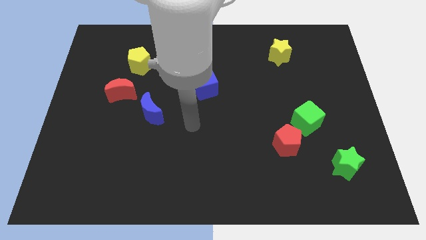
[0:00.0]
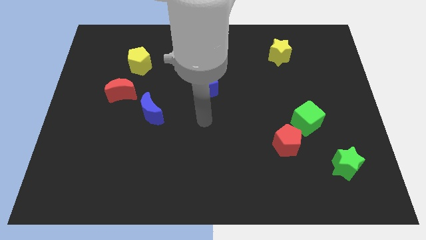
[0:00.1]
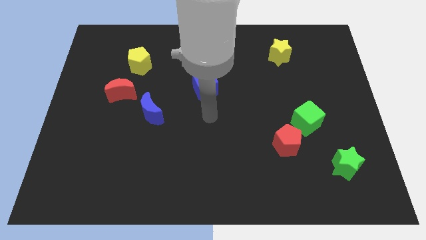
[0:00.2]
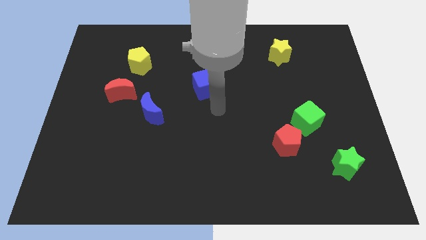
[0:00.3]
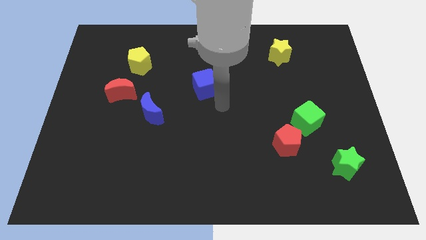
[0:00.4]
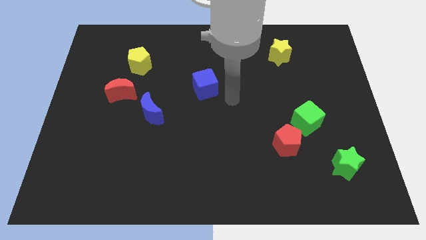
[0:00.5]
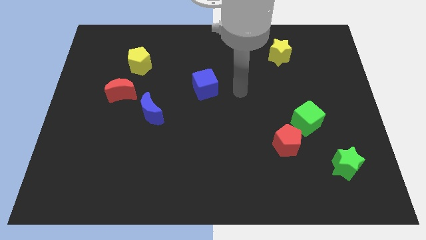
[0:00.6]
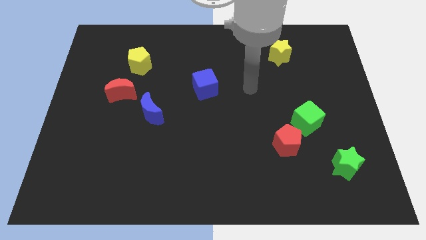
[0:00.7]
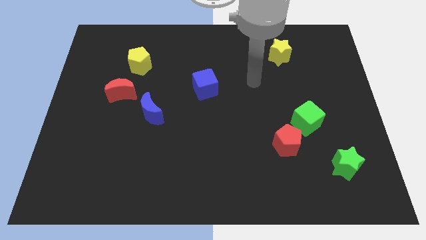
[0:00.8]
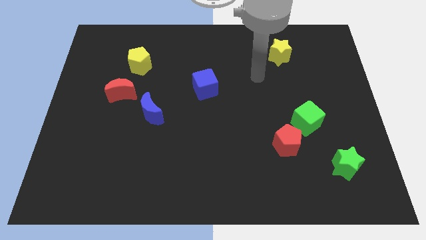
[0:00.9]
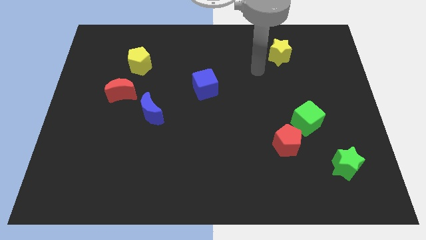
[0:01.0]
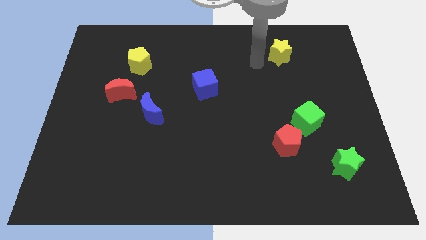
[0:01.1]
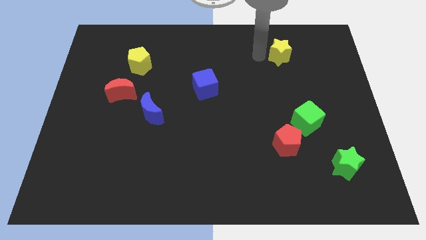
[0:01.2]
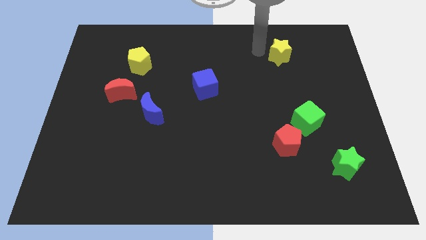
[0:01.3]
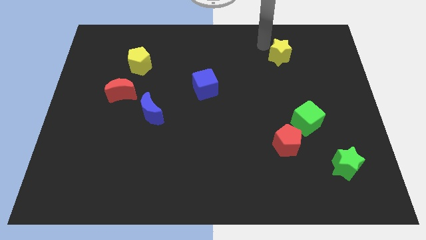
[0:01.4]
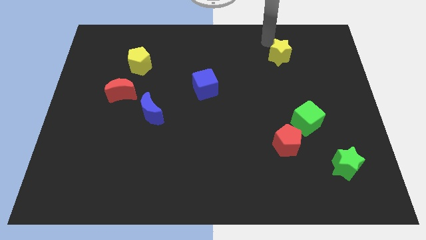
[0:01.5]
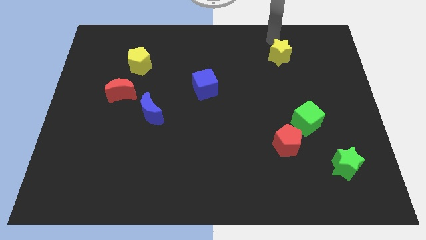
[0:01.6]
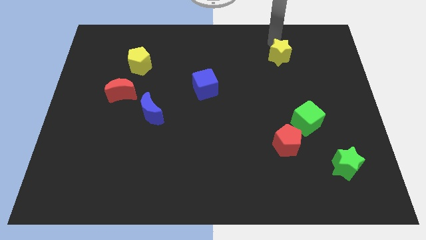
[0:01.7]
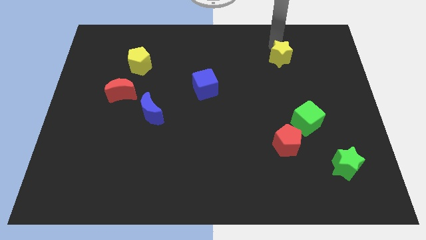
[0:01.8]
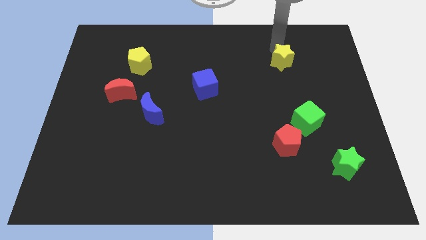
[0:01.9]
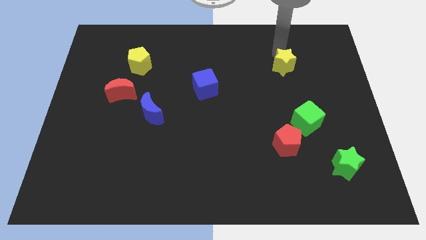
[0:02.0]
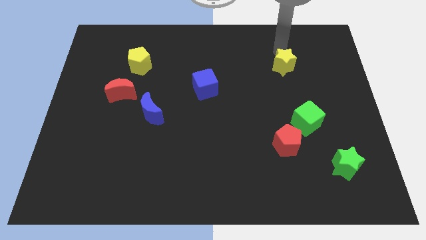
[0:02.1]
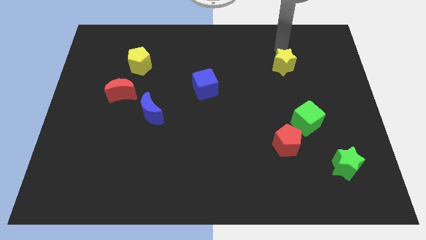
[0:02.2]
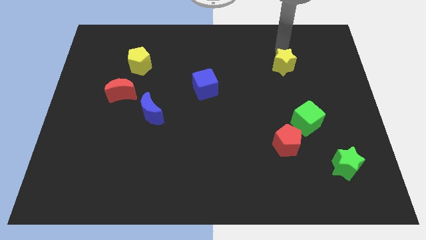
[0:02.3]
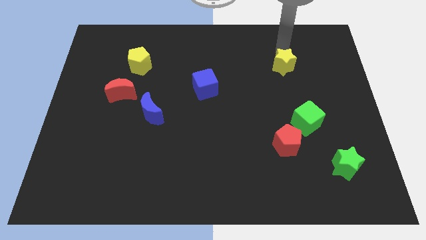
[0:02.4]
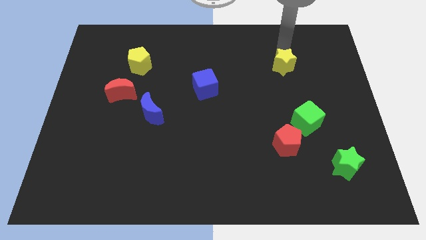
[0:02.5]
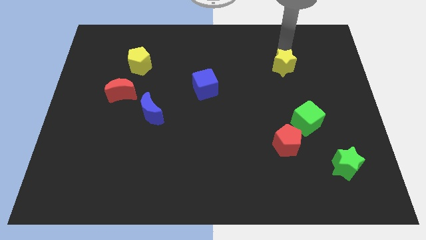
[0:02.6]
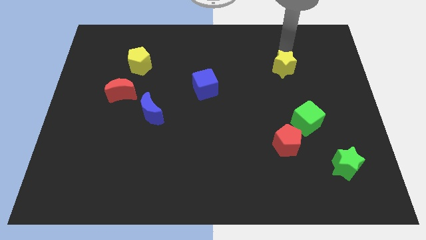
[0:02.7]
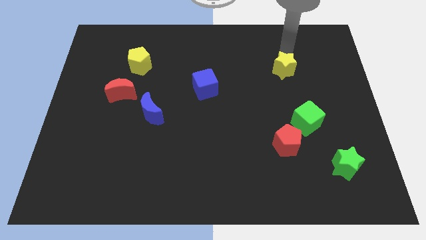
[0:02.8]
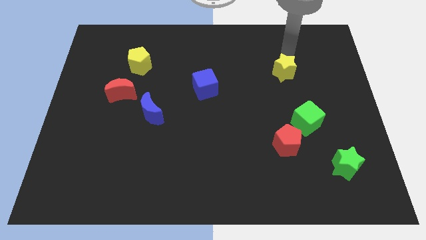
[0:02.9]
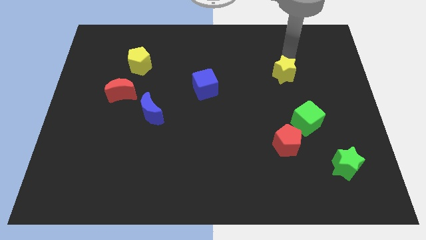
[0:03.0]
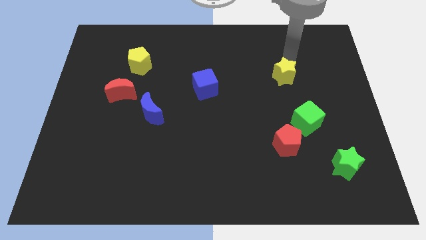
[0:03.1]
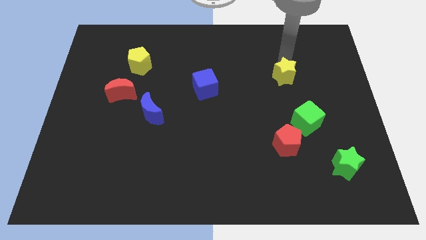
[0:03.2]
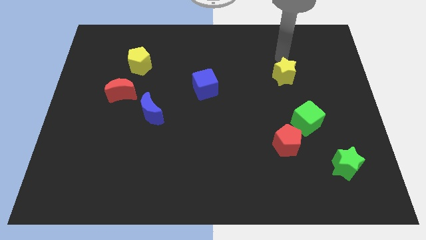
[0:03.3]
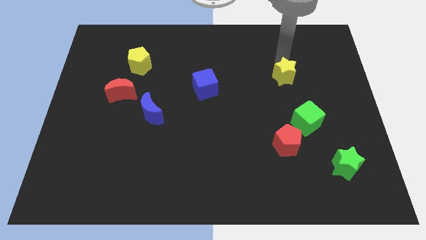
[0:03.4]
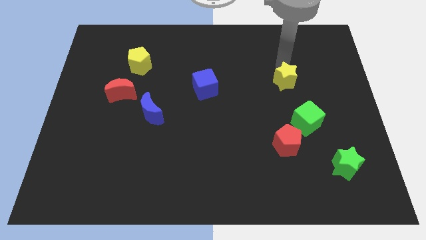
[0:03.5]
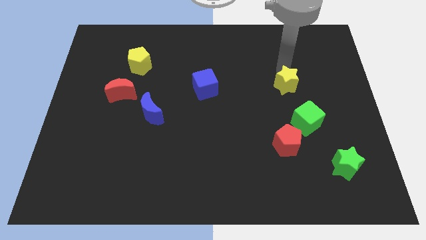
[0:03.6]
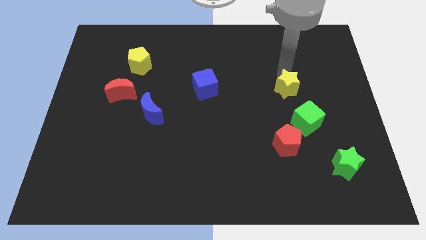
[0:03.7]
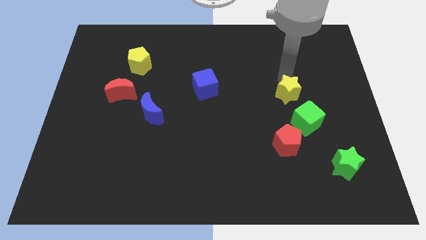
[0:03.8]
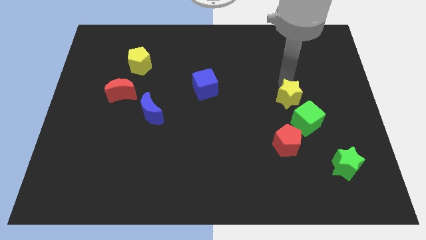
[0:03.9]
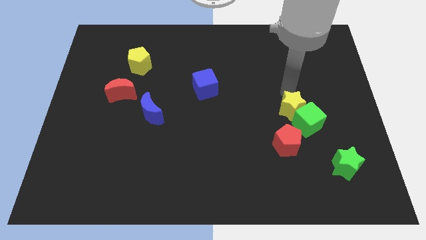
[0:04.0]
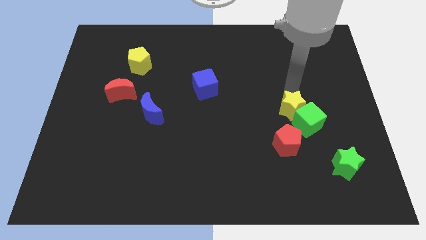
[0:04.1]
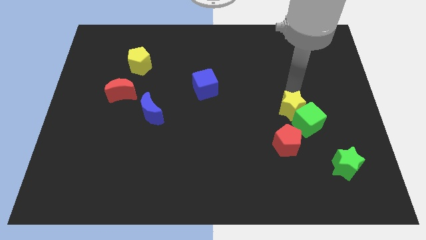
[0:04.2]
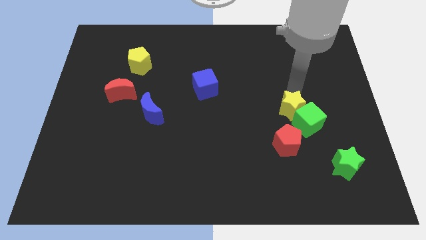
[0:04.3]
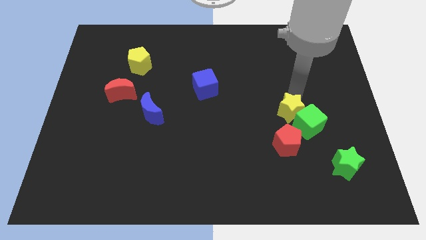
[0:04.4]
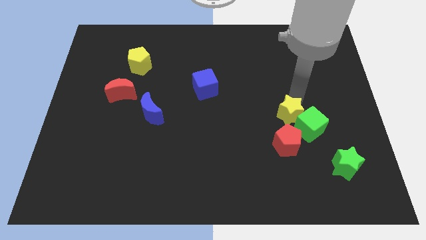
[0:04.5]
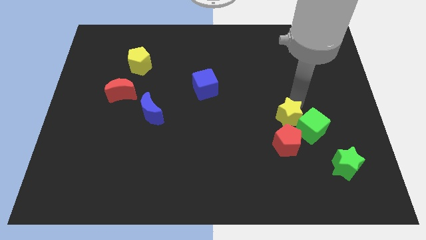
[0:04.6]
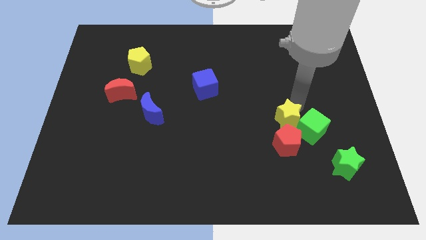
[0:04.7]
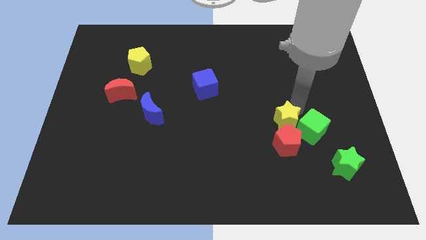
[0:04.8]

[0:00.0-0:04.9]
move the yellow star next to the red pentagon

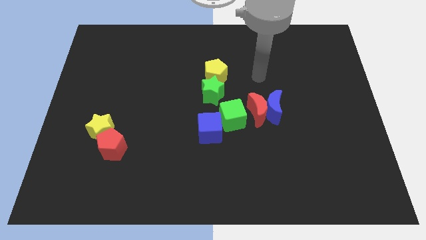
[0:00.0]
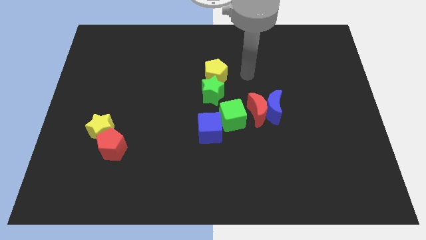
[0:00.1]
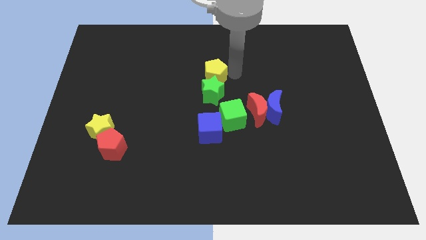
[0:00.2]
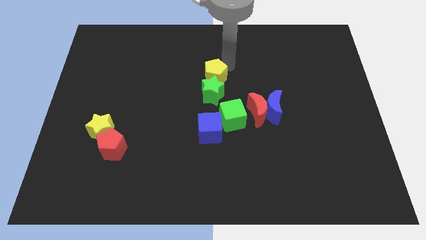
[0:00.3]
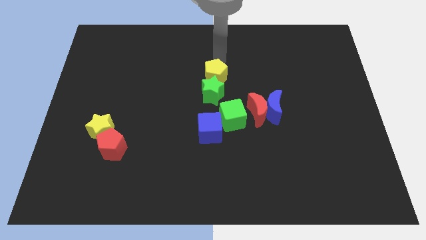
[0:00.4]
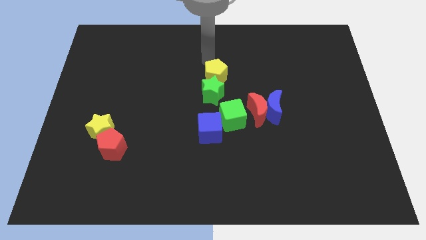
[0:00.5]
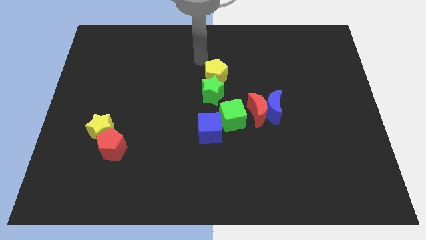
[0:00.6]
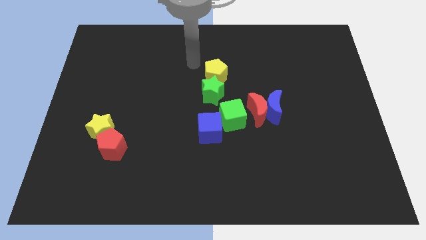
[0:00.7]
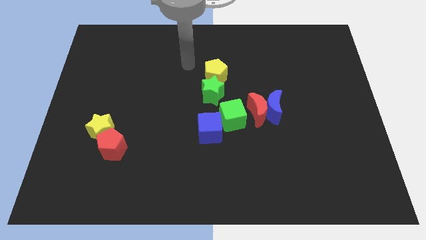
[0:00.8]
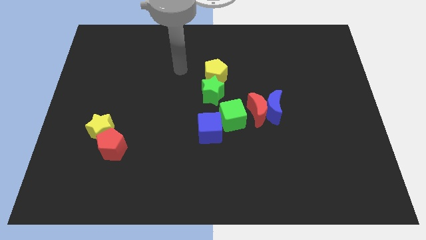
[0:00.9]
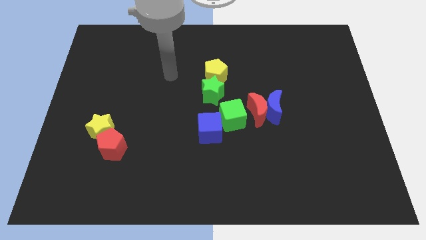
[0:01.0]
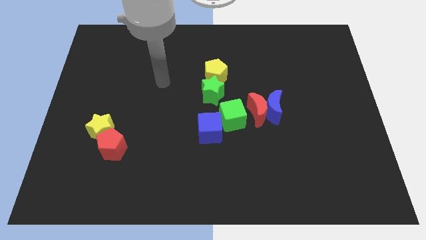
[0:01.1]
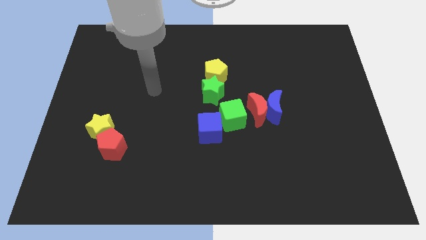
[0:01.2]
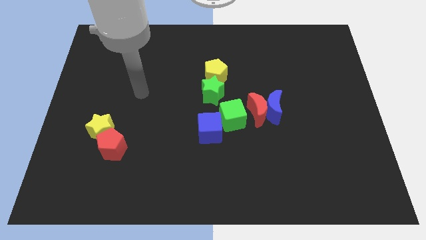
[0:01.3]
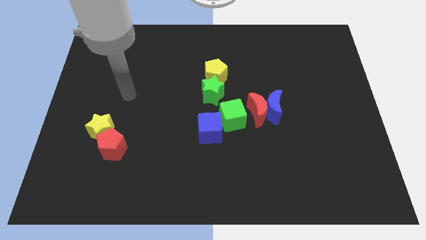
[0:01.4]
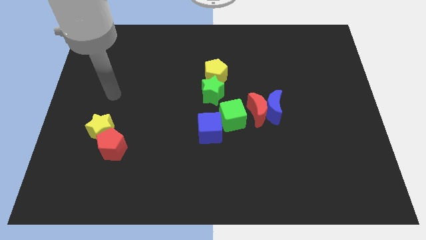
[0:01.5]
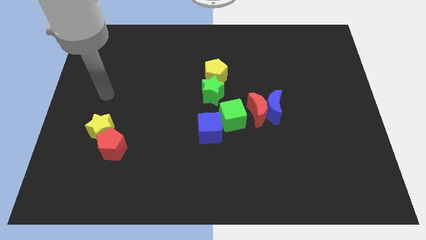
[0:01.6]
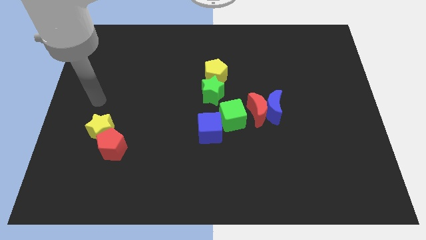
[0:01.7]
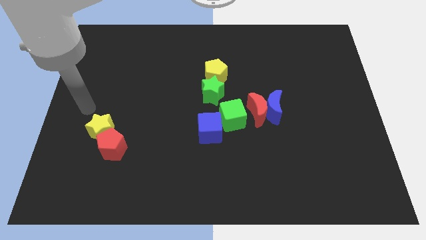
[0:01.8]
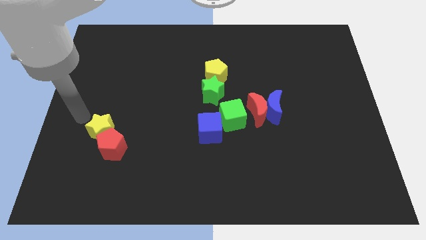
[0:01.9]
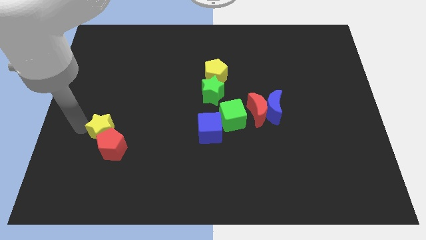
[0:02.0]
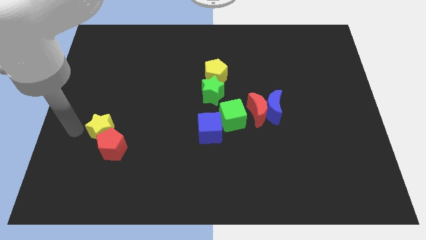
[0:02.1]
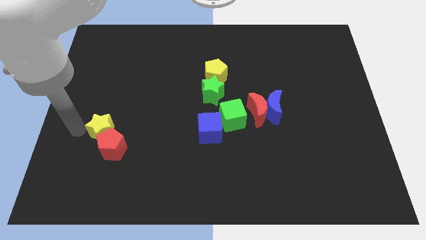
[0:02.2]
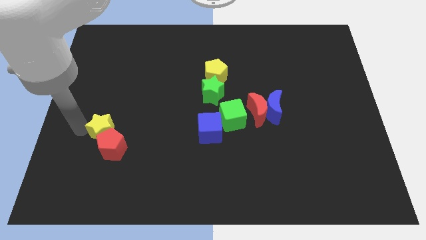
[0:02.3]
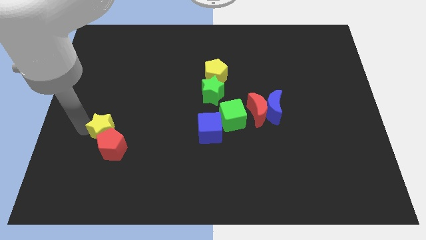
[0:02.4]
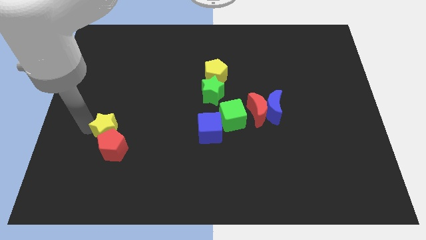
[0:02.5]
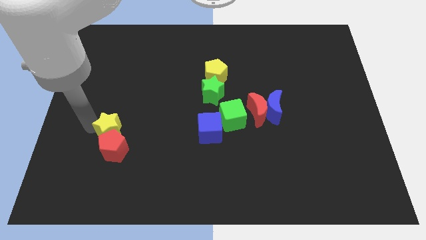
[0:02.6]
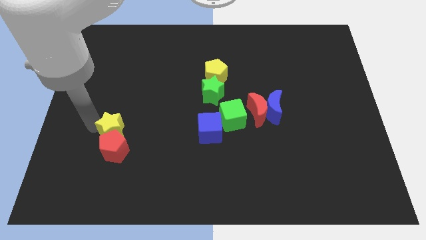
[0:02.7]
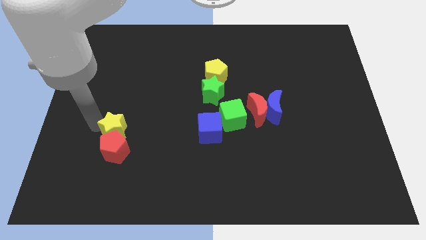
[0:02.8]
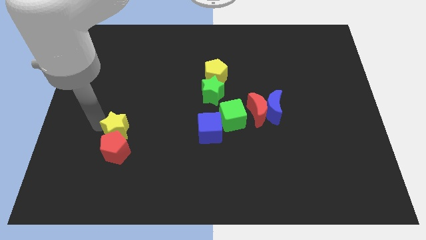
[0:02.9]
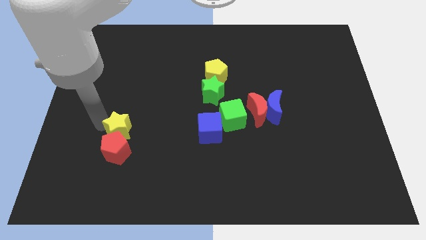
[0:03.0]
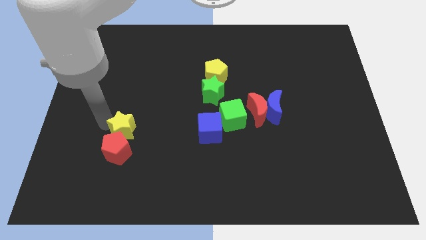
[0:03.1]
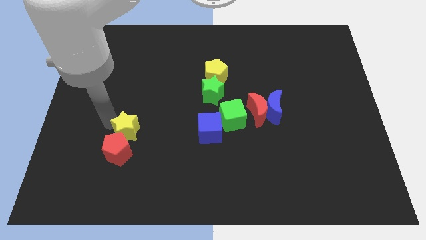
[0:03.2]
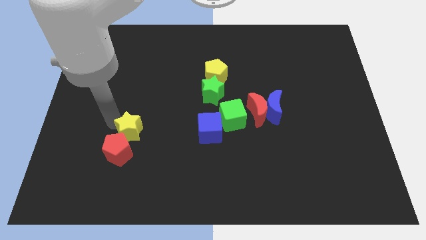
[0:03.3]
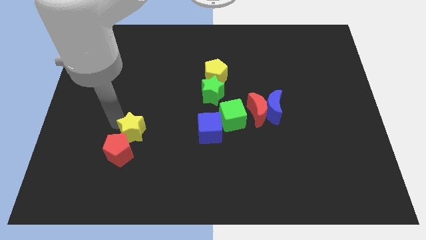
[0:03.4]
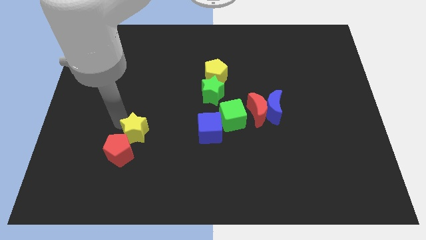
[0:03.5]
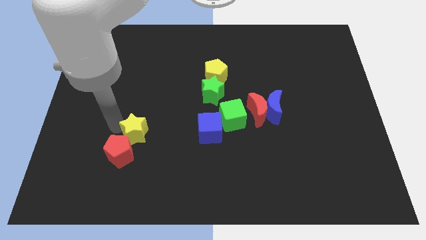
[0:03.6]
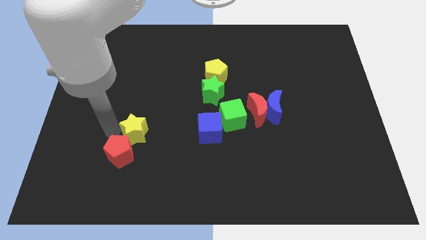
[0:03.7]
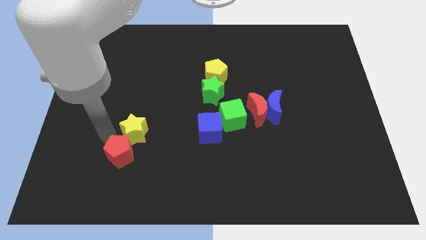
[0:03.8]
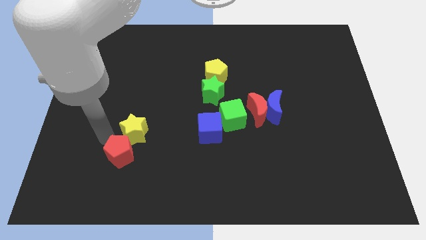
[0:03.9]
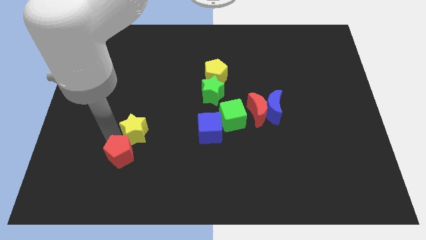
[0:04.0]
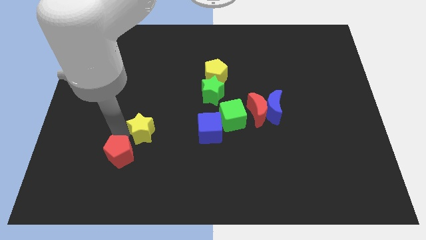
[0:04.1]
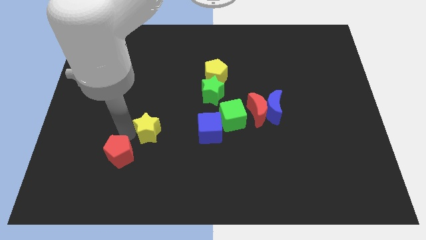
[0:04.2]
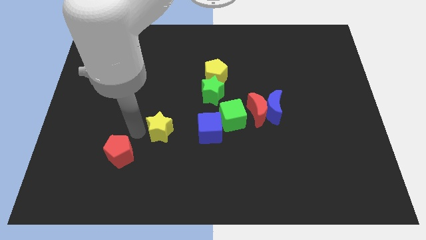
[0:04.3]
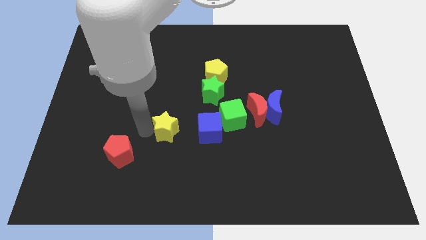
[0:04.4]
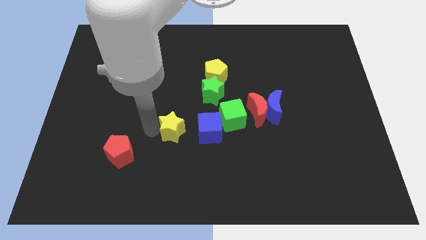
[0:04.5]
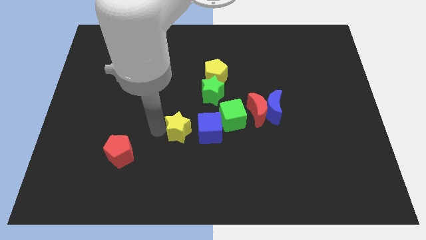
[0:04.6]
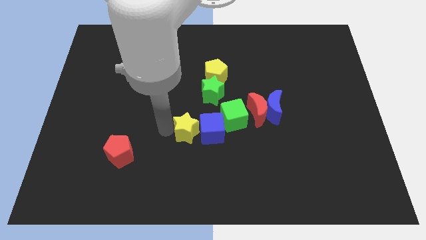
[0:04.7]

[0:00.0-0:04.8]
put the yellow star close to the blue cube
